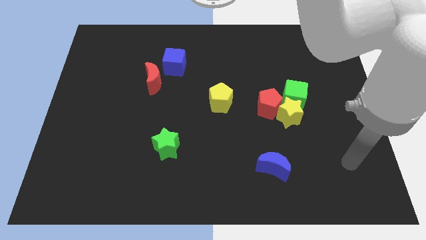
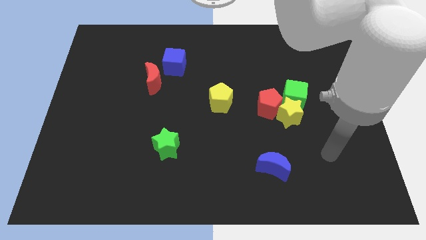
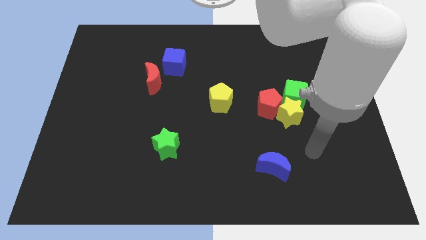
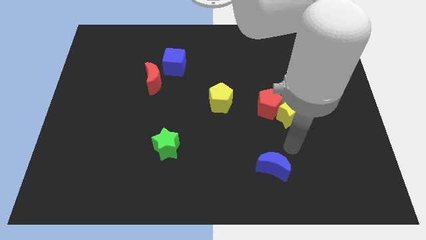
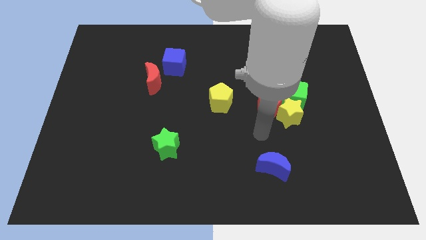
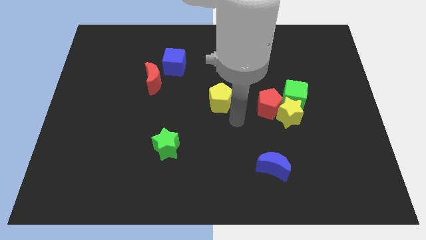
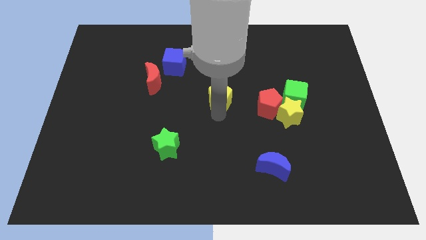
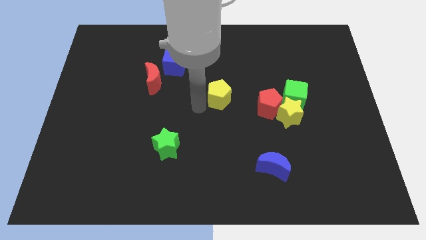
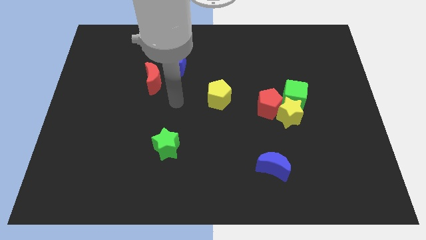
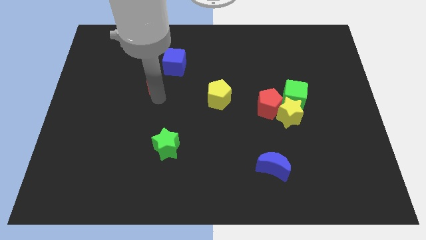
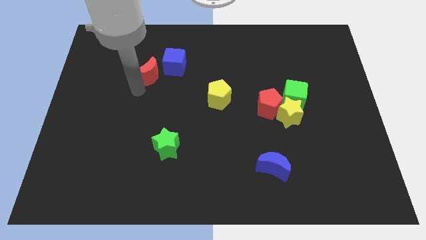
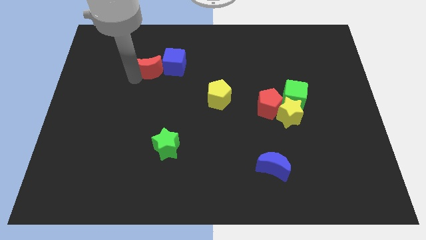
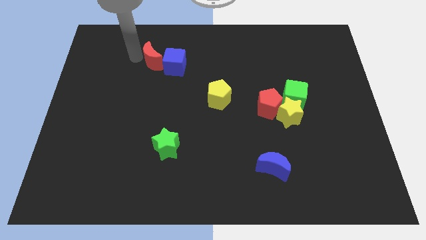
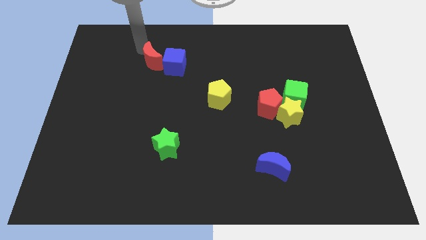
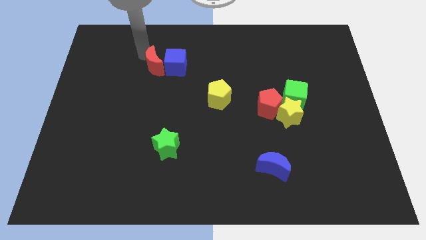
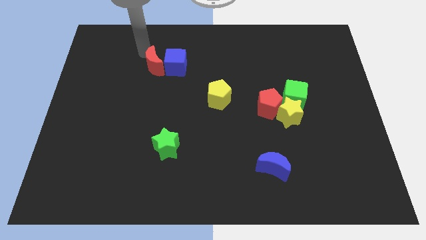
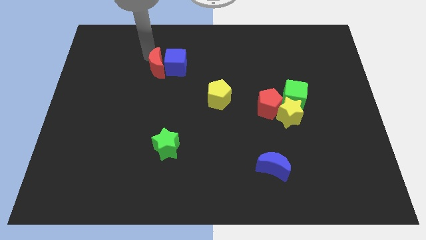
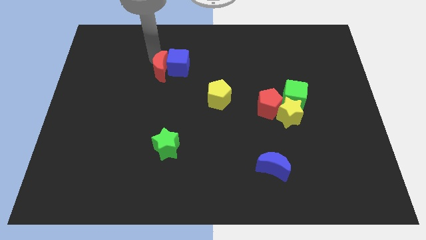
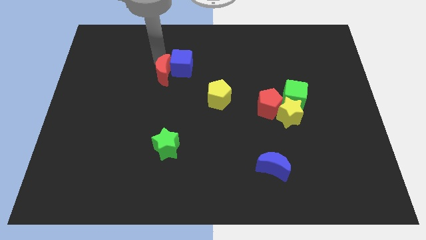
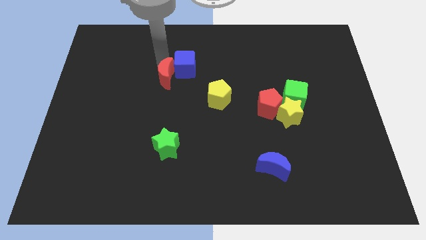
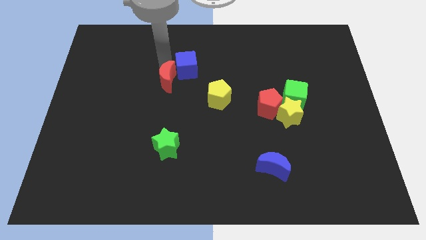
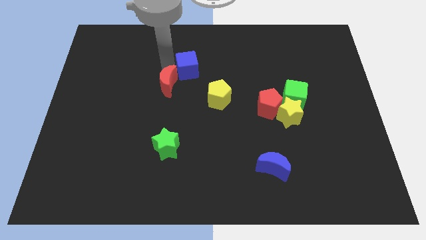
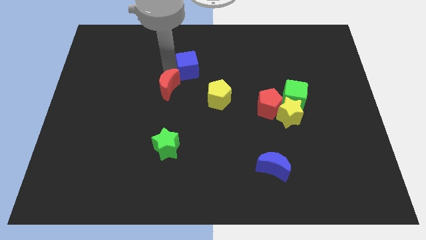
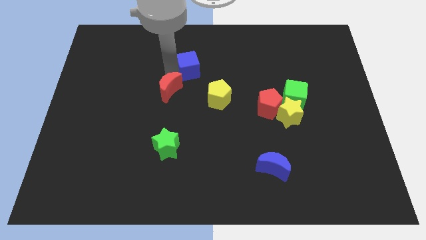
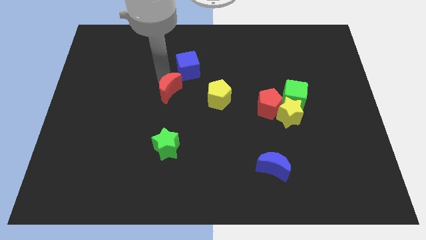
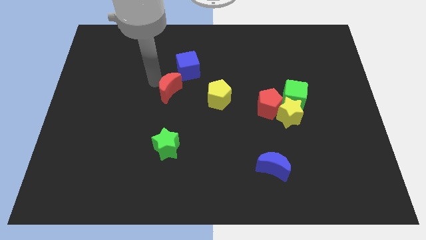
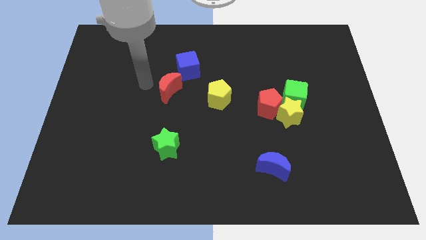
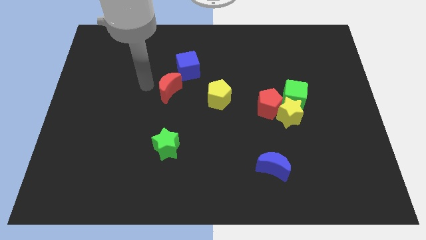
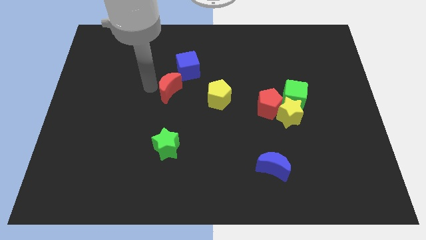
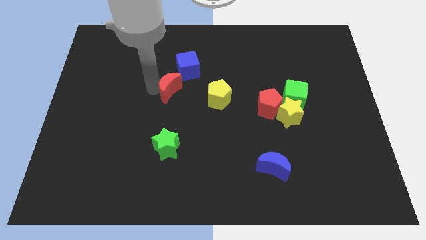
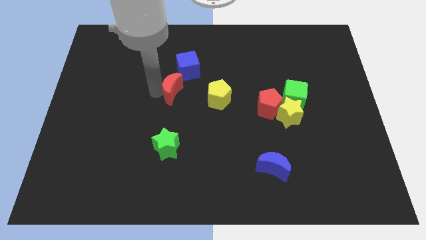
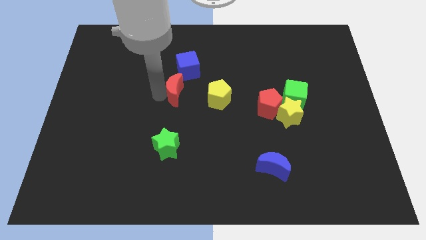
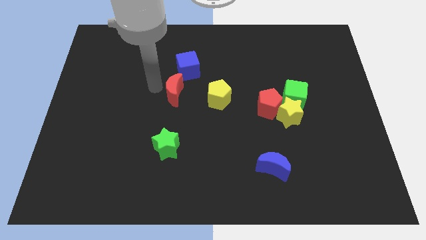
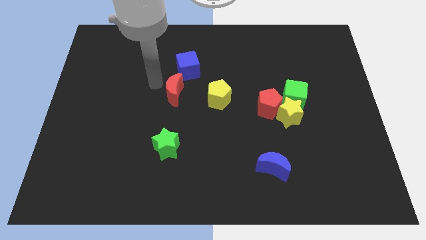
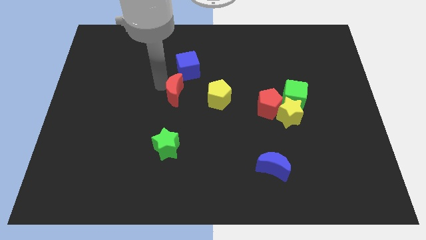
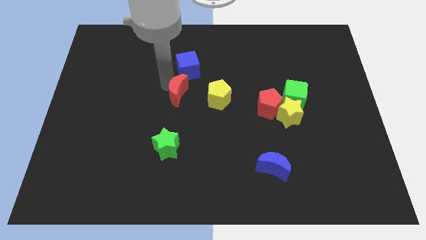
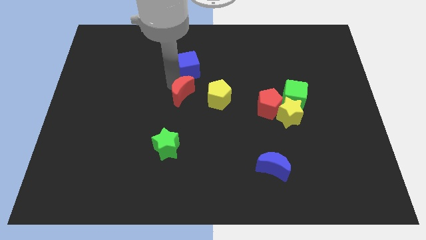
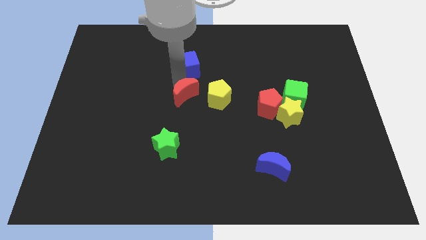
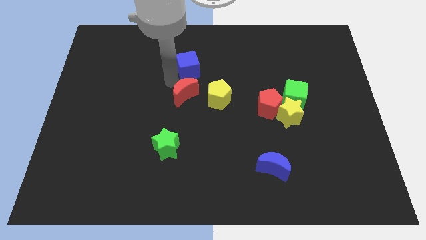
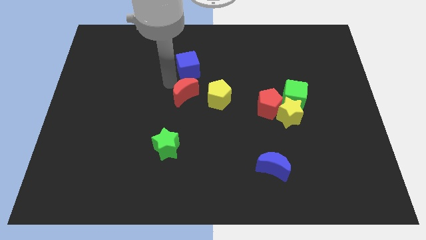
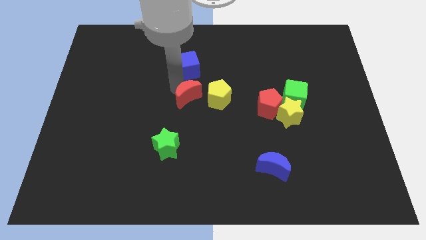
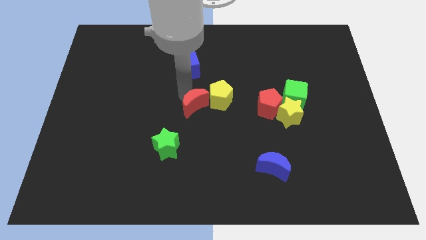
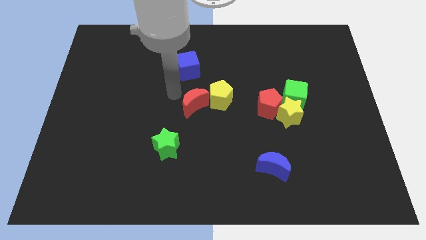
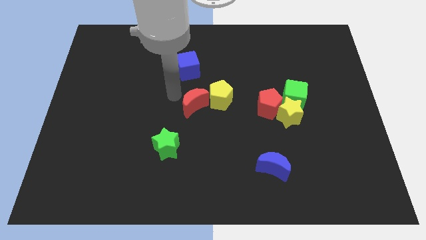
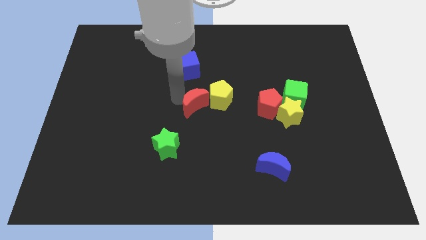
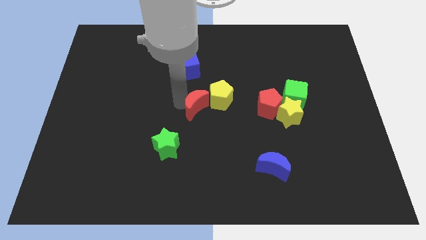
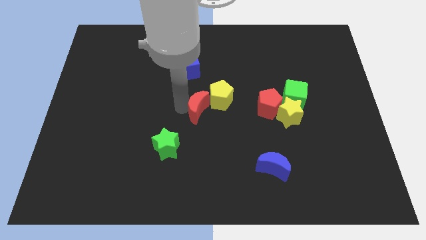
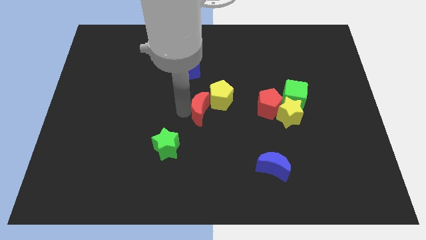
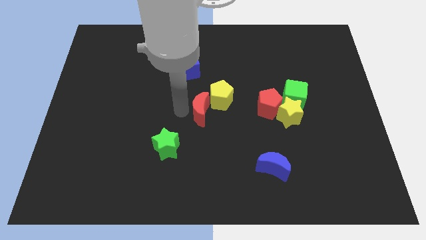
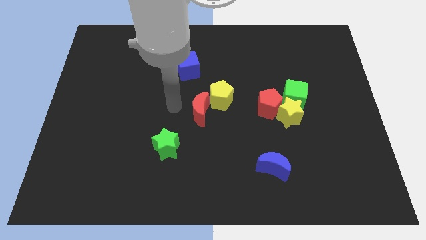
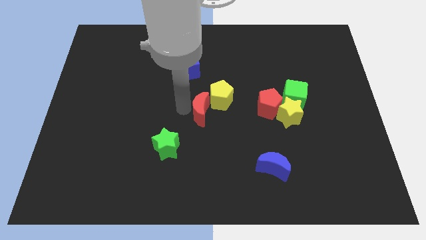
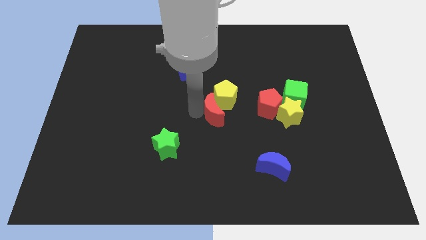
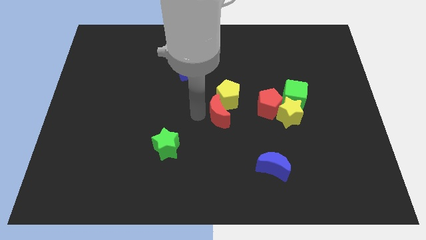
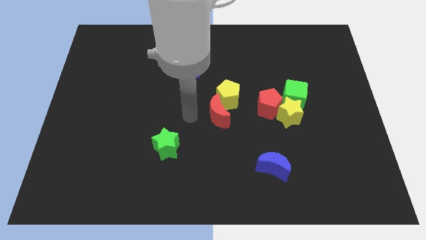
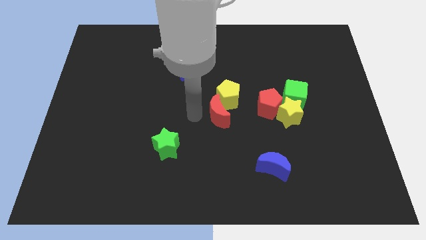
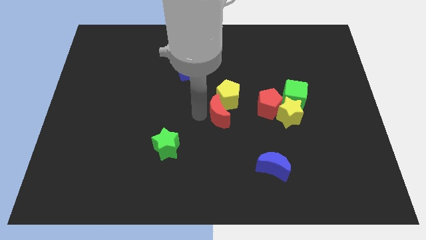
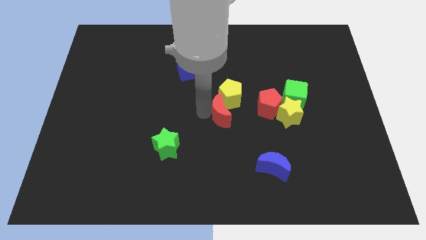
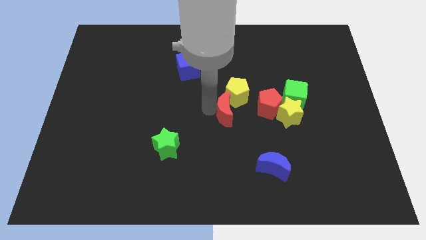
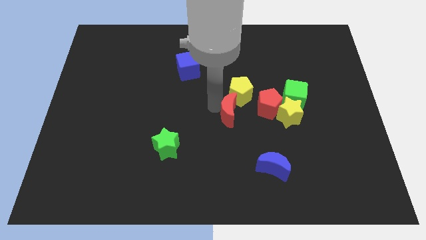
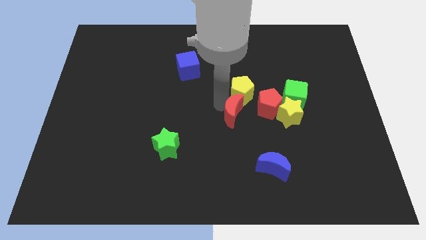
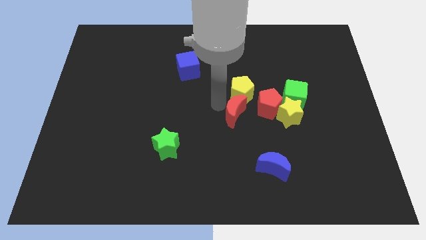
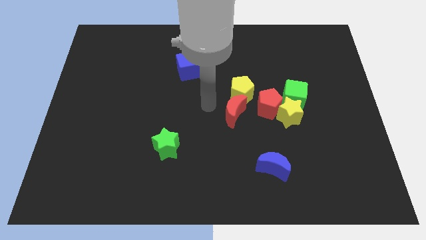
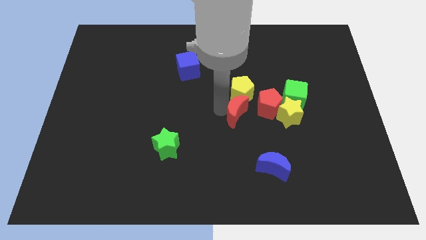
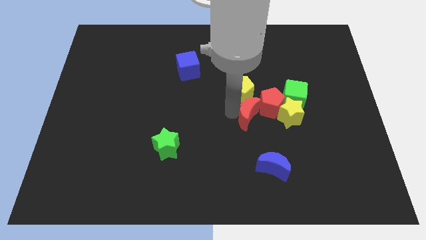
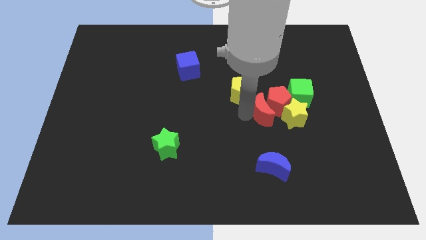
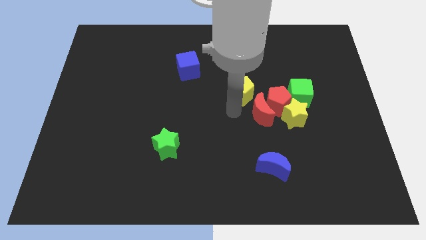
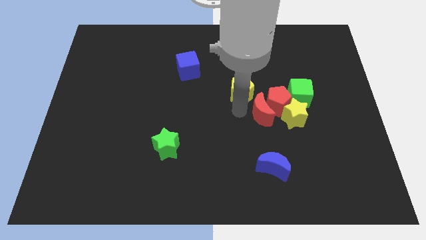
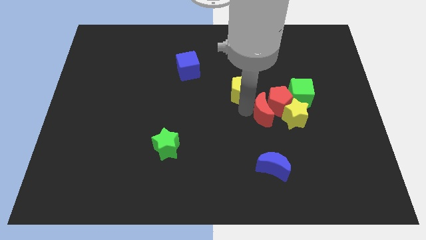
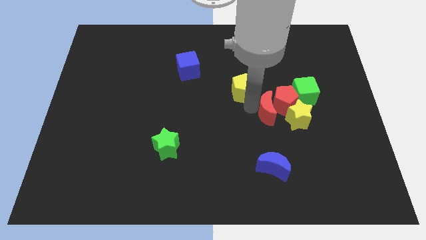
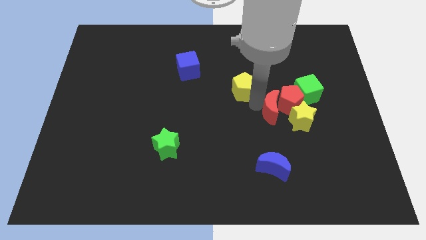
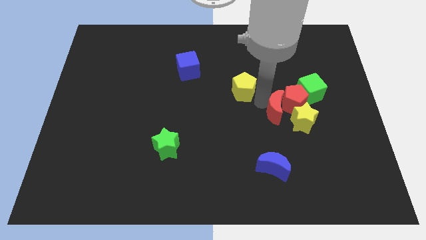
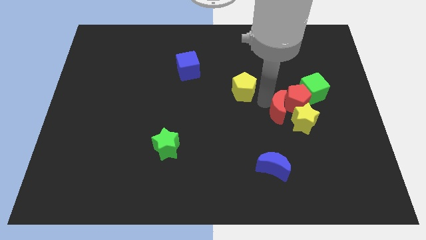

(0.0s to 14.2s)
move the red moon towards the yellow star
